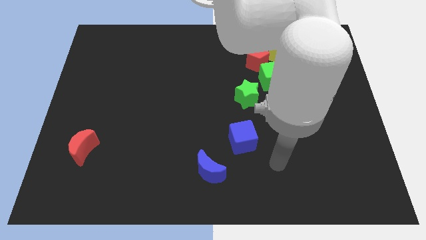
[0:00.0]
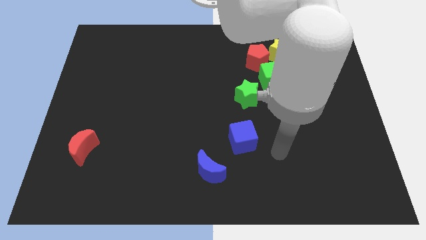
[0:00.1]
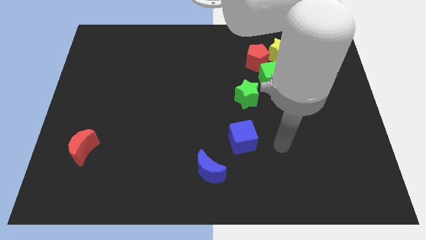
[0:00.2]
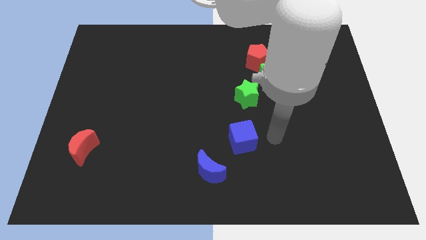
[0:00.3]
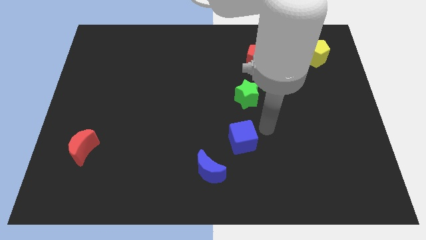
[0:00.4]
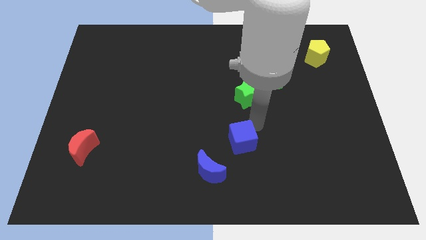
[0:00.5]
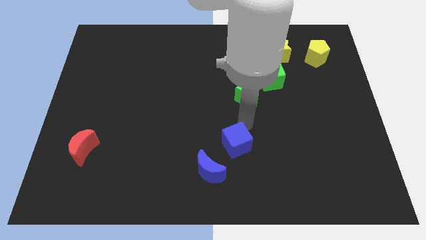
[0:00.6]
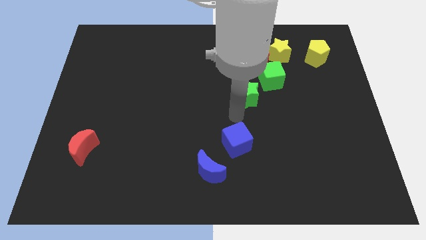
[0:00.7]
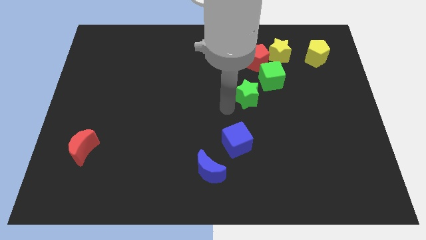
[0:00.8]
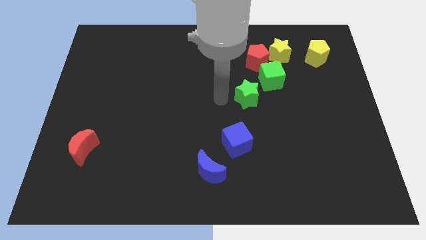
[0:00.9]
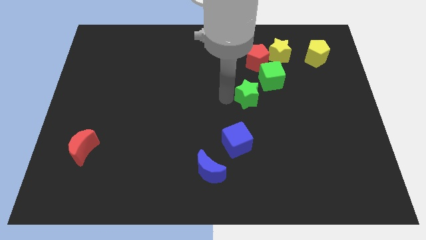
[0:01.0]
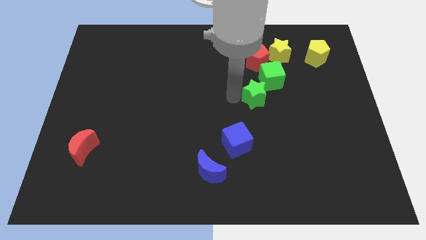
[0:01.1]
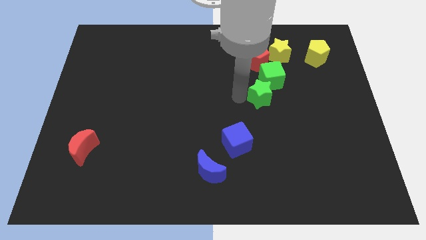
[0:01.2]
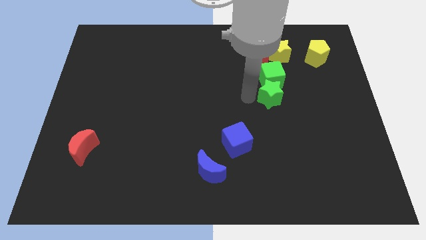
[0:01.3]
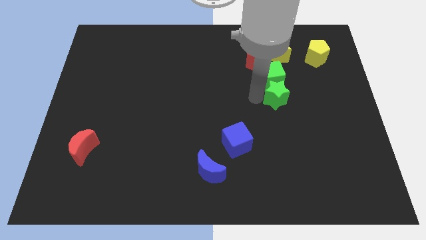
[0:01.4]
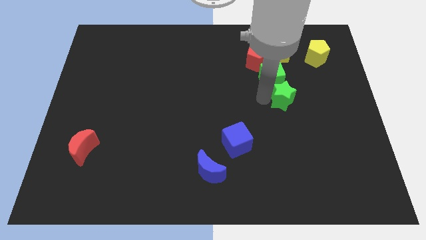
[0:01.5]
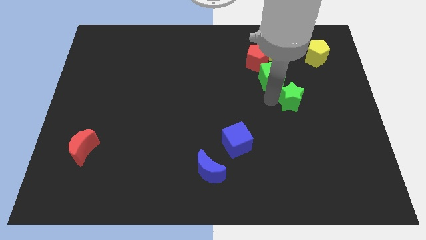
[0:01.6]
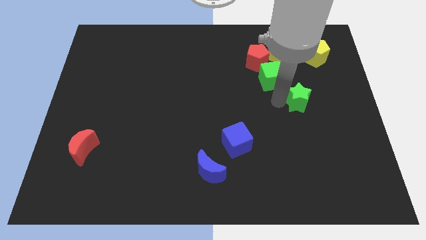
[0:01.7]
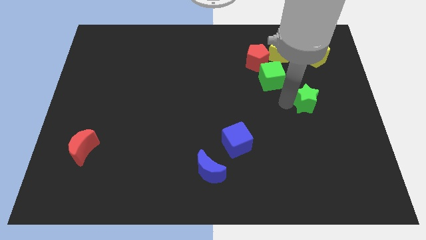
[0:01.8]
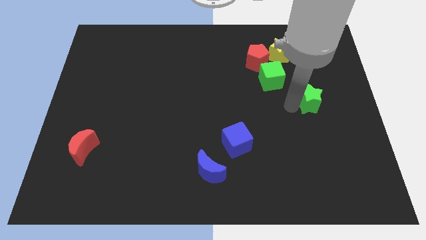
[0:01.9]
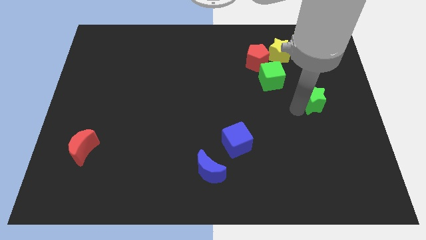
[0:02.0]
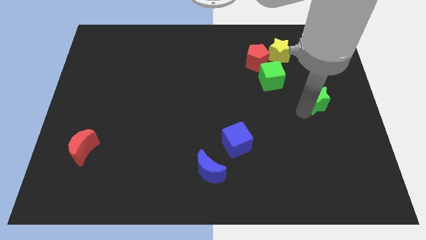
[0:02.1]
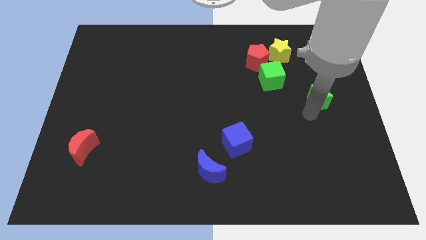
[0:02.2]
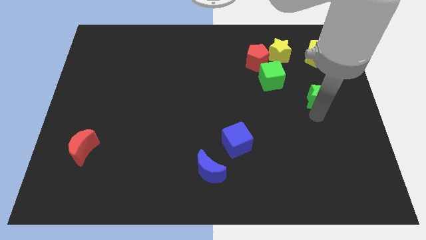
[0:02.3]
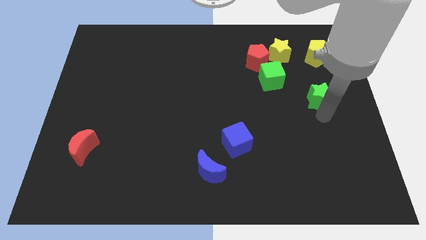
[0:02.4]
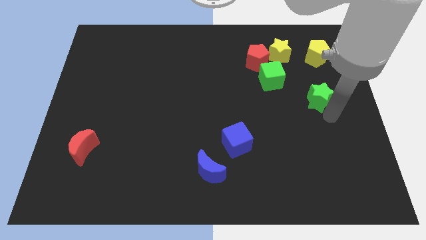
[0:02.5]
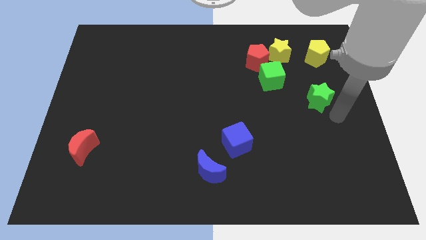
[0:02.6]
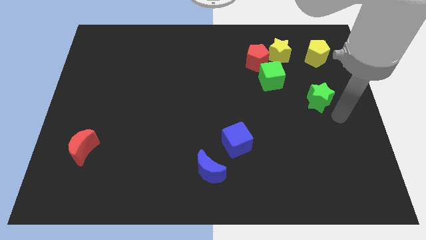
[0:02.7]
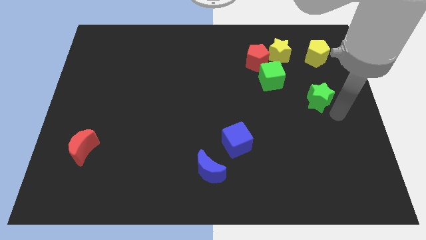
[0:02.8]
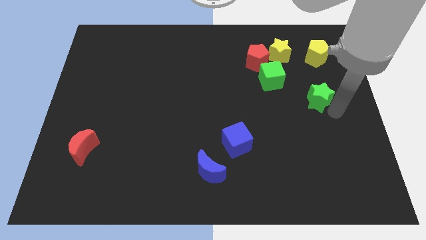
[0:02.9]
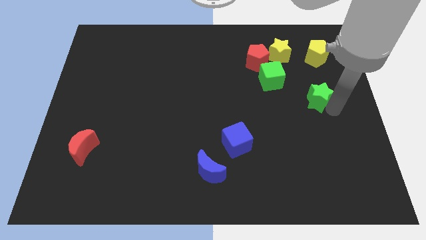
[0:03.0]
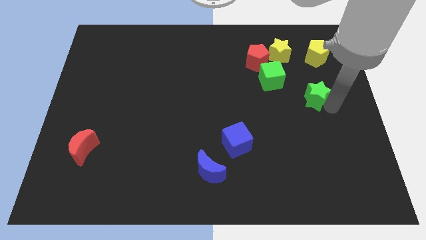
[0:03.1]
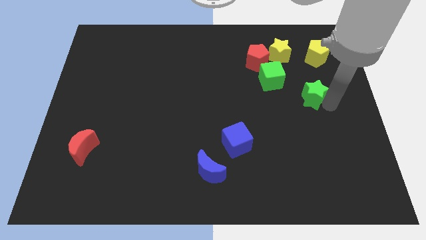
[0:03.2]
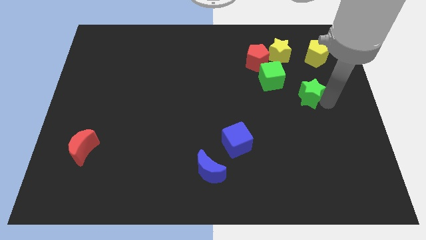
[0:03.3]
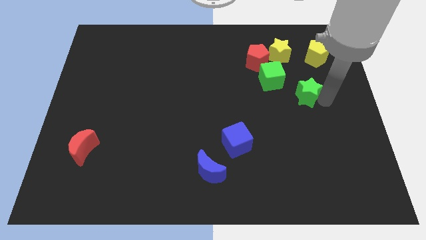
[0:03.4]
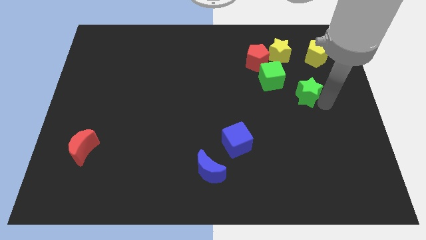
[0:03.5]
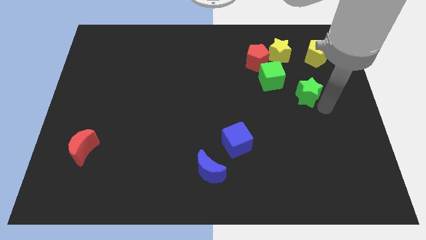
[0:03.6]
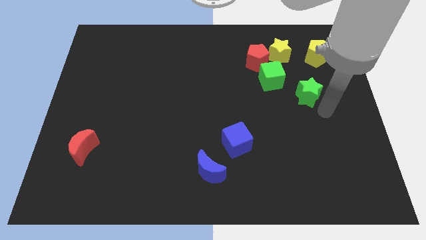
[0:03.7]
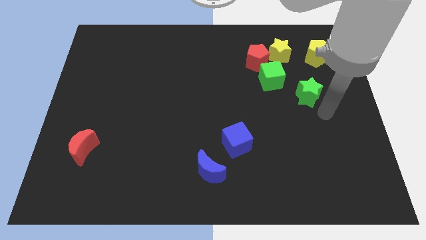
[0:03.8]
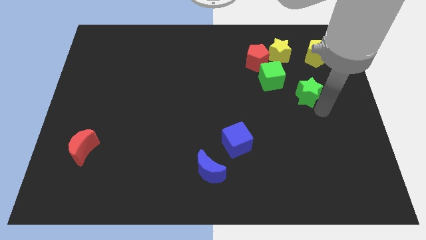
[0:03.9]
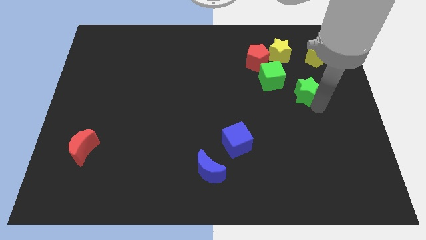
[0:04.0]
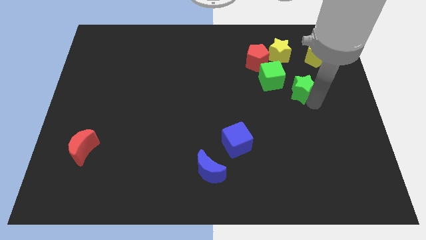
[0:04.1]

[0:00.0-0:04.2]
move the green star slightly diagonally upwards and right

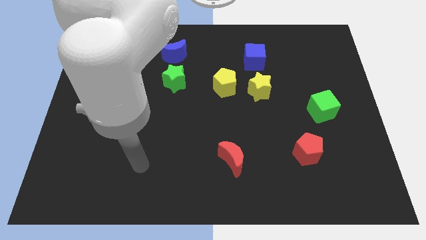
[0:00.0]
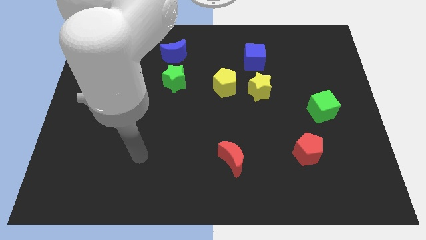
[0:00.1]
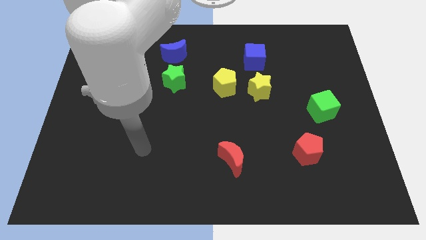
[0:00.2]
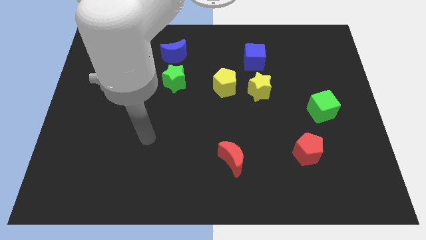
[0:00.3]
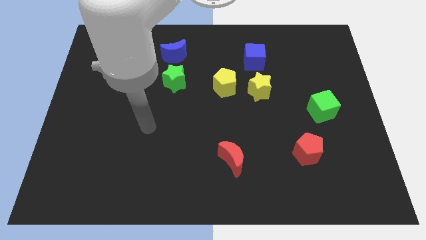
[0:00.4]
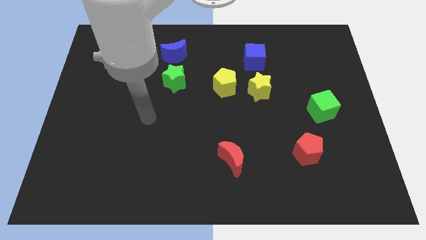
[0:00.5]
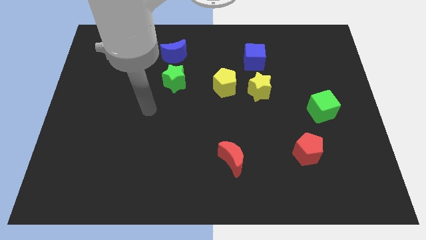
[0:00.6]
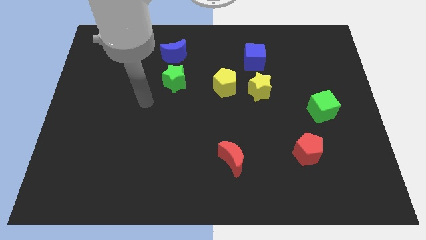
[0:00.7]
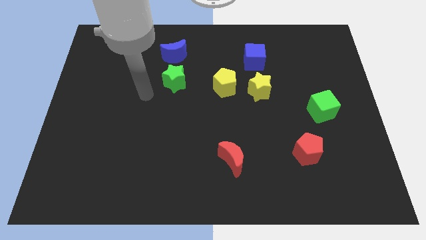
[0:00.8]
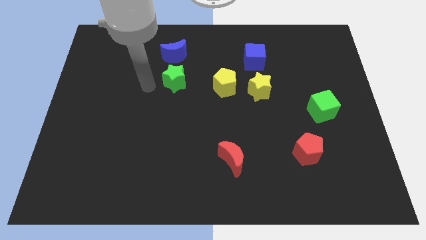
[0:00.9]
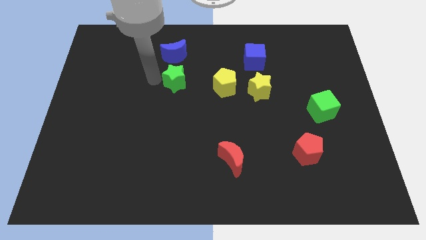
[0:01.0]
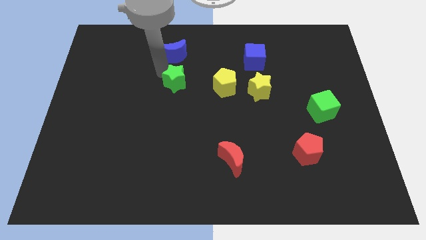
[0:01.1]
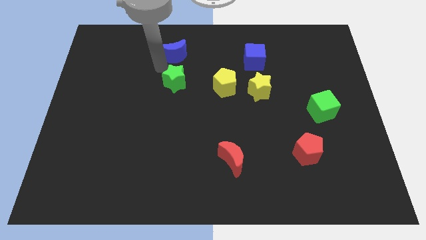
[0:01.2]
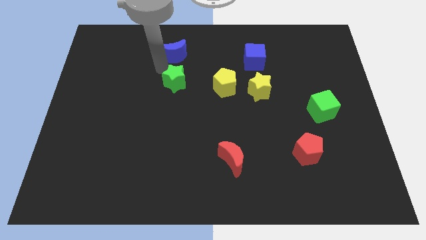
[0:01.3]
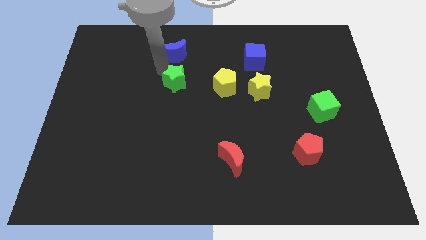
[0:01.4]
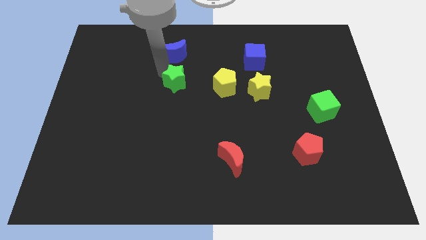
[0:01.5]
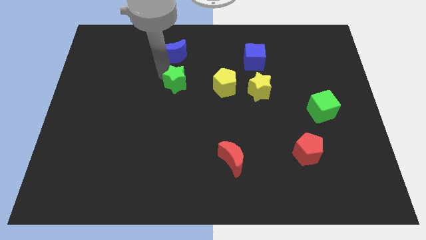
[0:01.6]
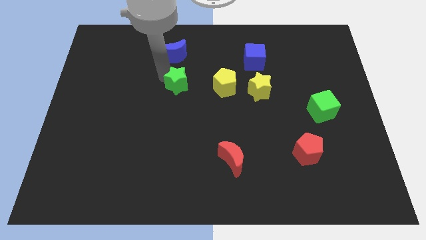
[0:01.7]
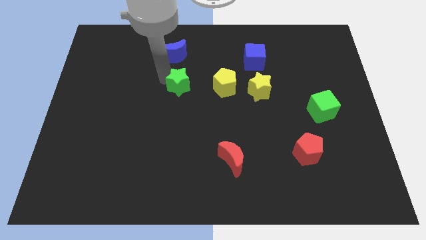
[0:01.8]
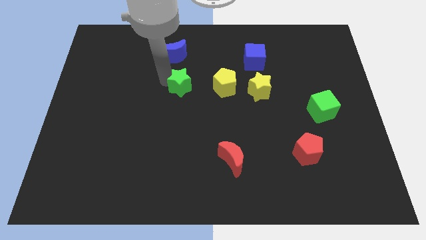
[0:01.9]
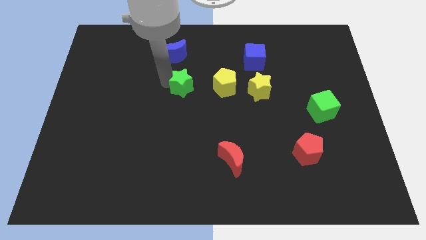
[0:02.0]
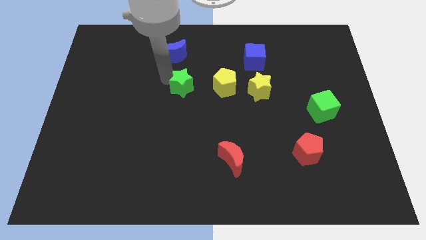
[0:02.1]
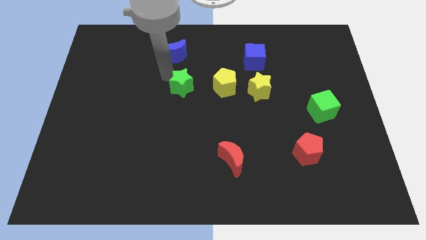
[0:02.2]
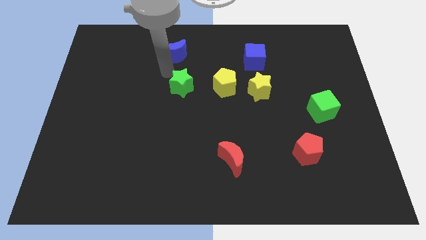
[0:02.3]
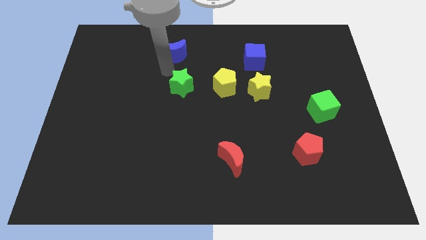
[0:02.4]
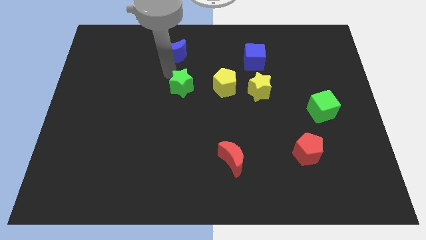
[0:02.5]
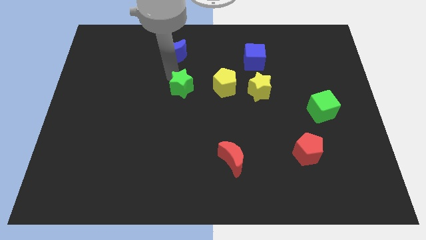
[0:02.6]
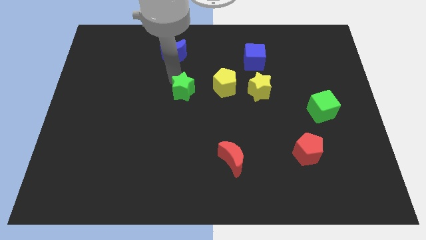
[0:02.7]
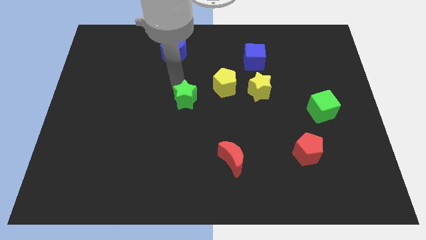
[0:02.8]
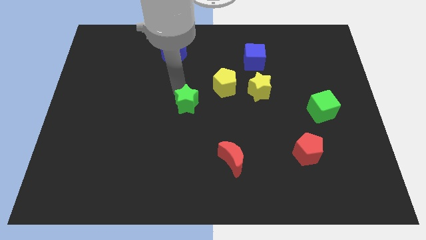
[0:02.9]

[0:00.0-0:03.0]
slightly push the green star down and then to the right

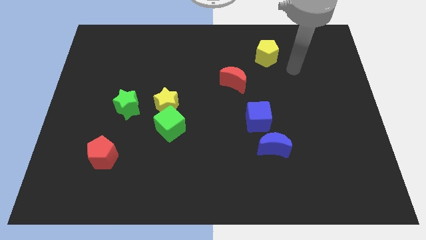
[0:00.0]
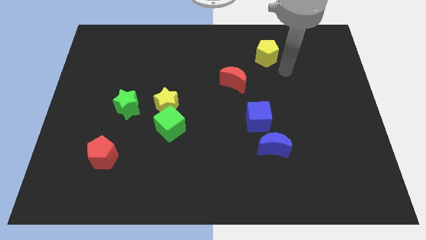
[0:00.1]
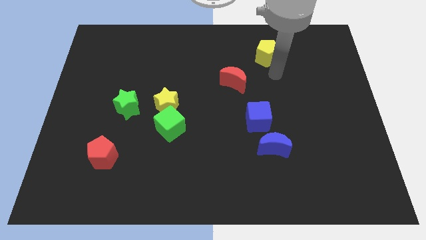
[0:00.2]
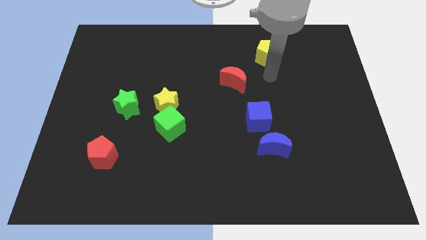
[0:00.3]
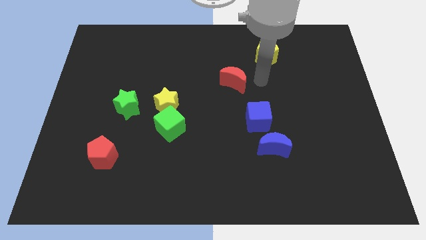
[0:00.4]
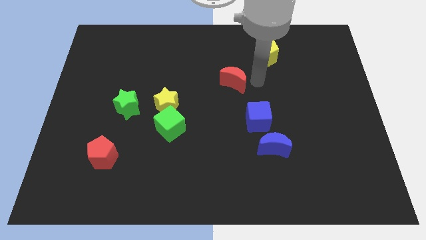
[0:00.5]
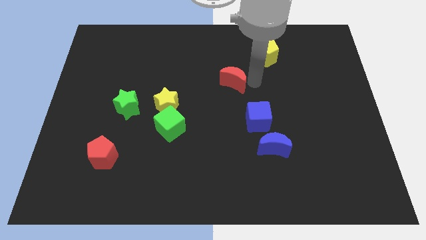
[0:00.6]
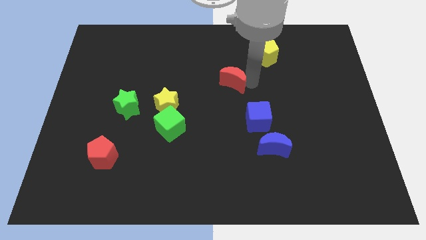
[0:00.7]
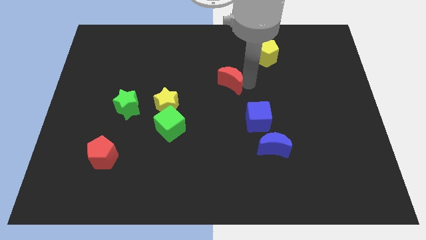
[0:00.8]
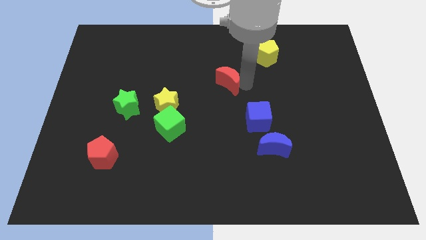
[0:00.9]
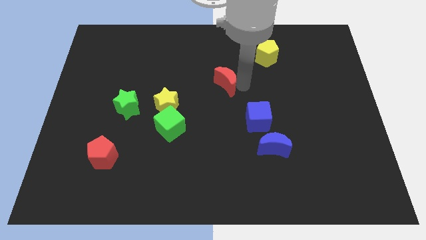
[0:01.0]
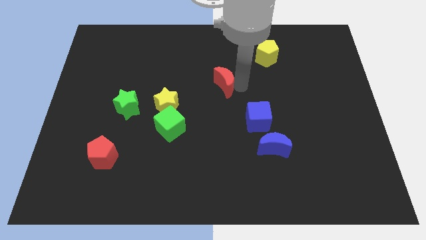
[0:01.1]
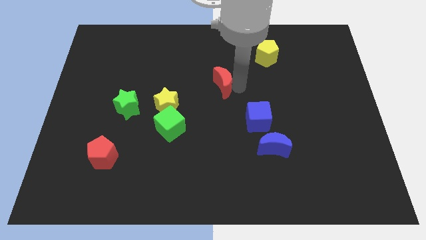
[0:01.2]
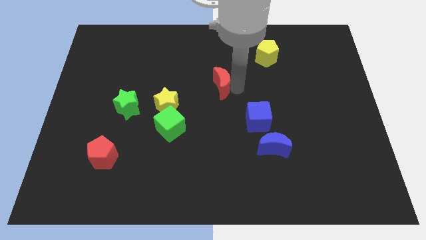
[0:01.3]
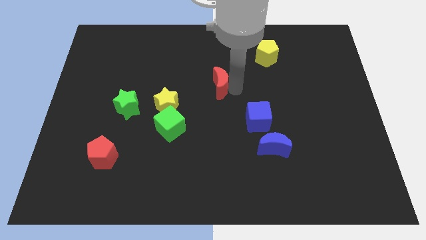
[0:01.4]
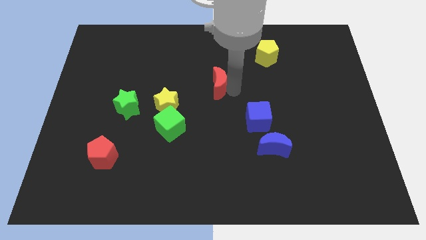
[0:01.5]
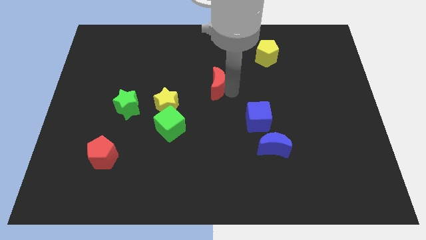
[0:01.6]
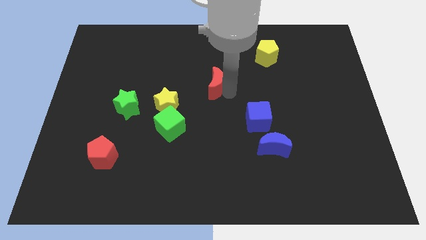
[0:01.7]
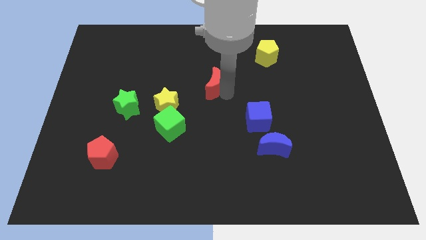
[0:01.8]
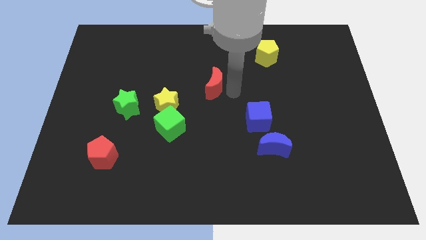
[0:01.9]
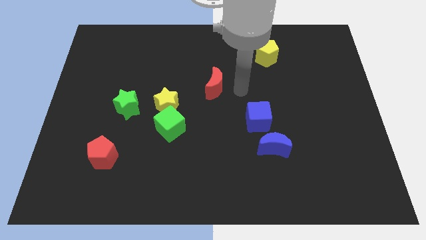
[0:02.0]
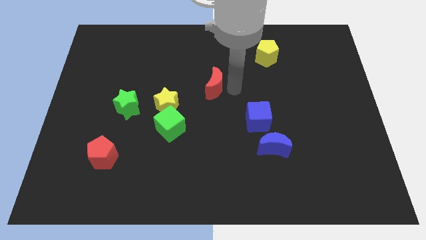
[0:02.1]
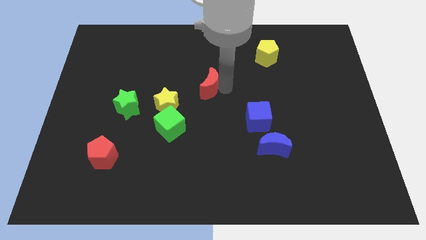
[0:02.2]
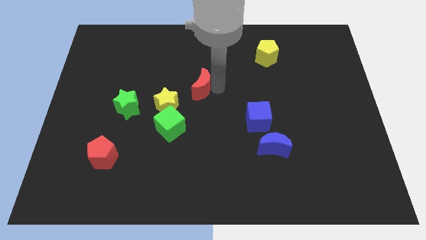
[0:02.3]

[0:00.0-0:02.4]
slightly move the red moon to the left
